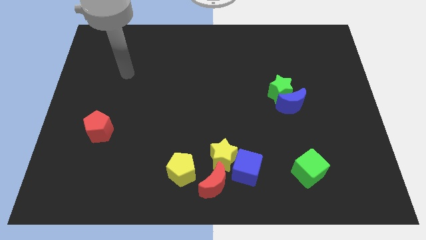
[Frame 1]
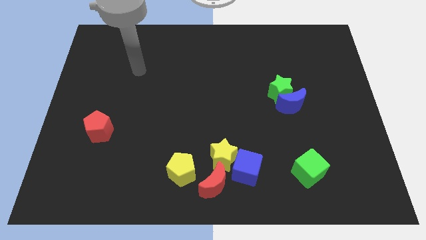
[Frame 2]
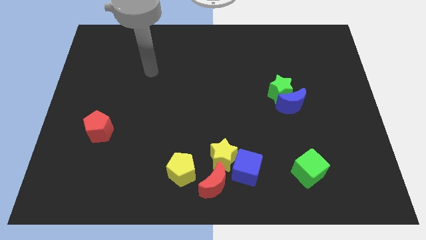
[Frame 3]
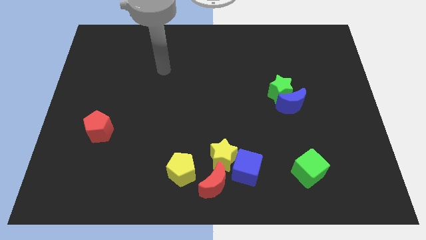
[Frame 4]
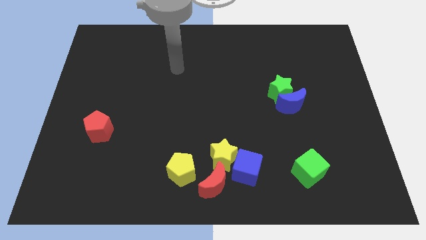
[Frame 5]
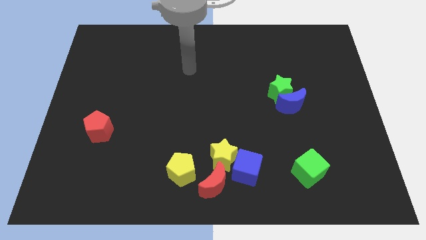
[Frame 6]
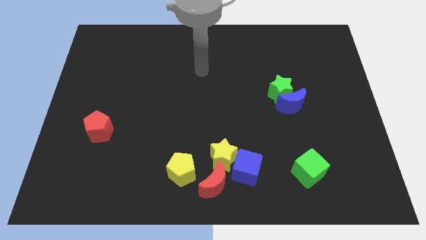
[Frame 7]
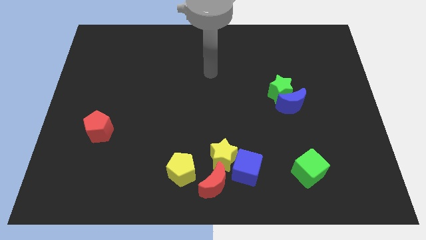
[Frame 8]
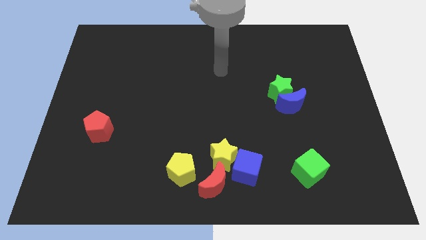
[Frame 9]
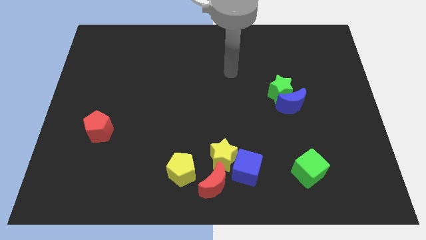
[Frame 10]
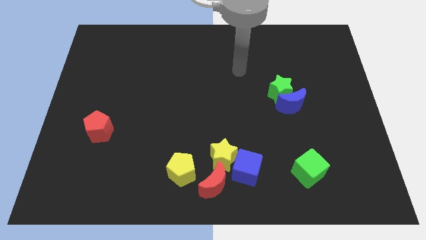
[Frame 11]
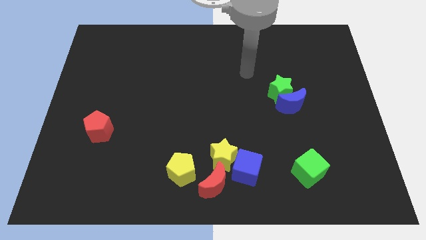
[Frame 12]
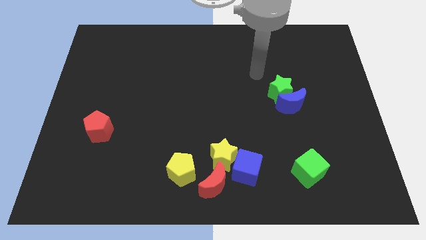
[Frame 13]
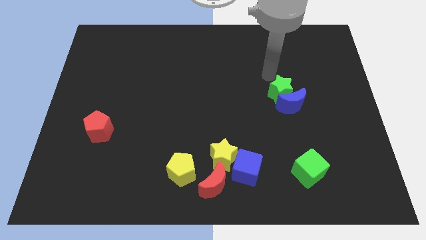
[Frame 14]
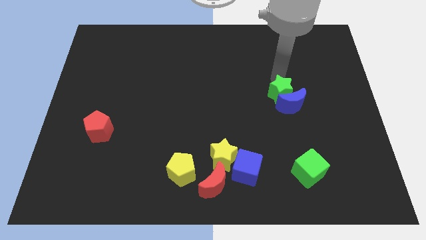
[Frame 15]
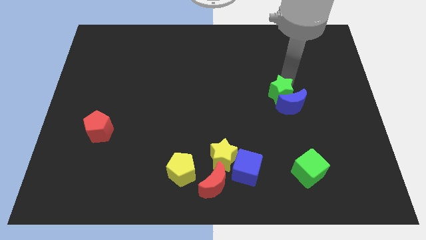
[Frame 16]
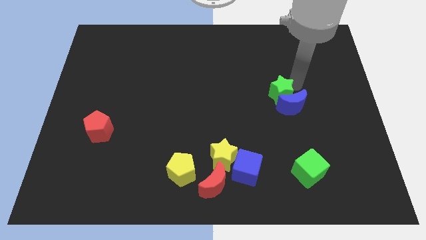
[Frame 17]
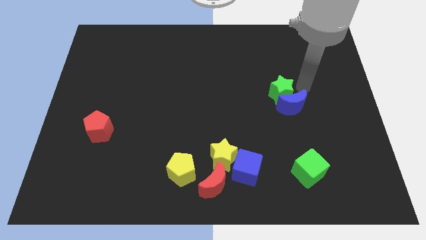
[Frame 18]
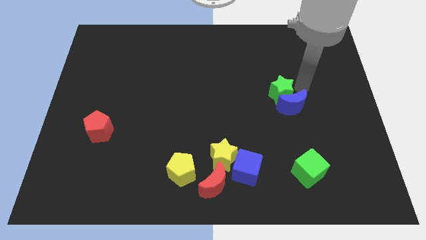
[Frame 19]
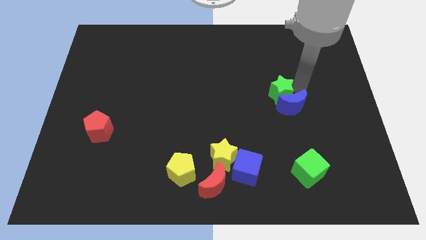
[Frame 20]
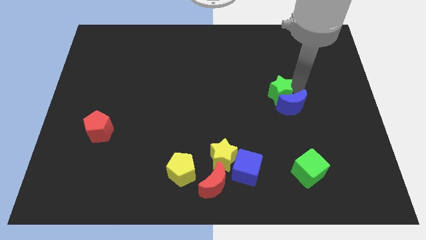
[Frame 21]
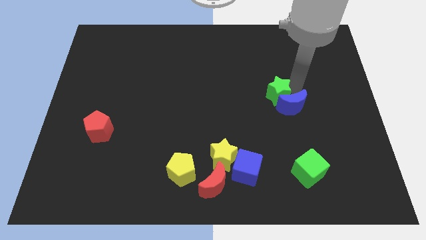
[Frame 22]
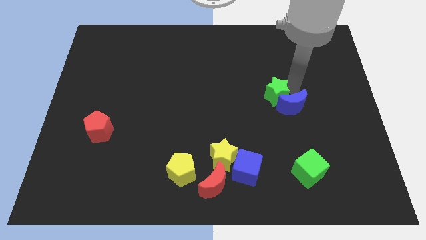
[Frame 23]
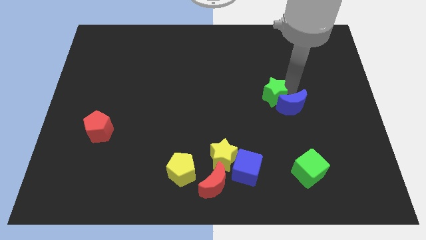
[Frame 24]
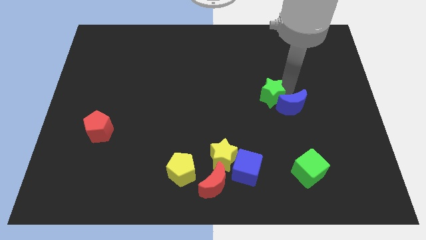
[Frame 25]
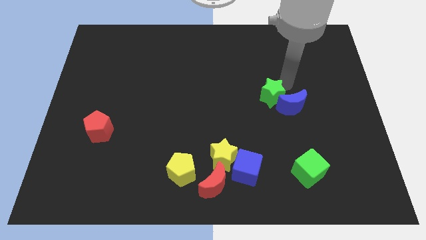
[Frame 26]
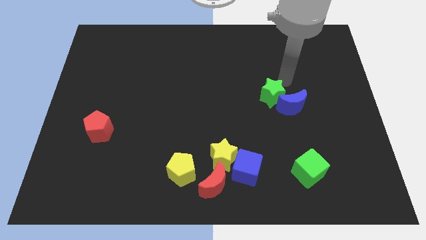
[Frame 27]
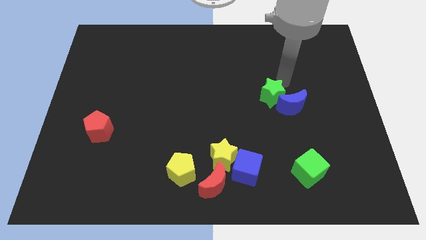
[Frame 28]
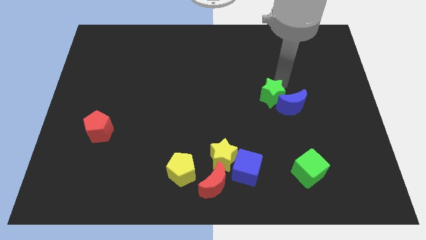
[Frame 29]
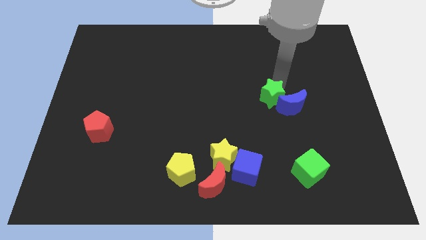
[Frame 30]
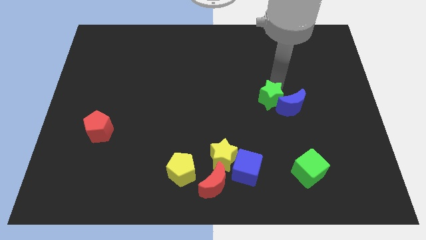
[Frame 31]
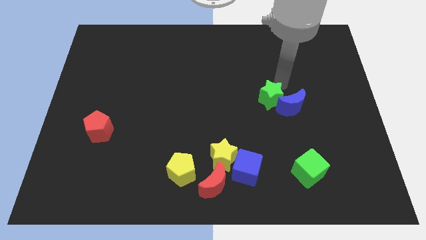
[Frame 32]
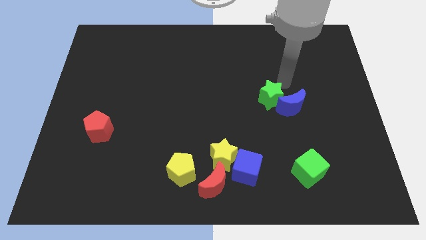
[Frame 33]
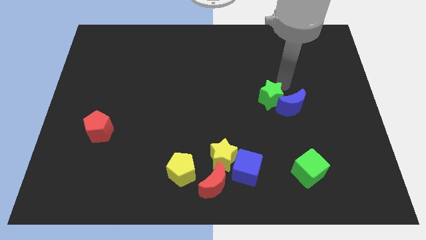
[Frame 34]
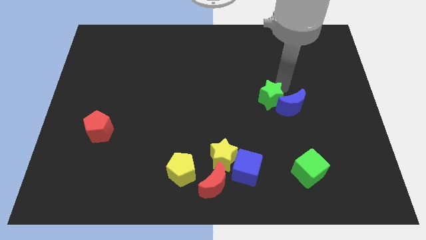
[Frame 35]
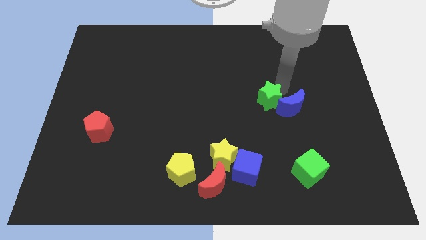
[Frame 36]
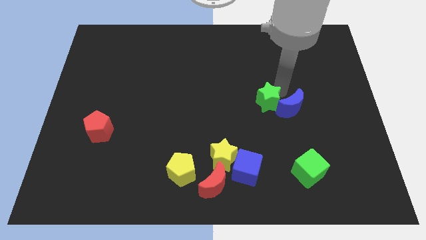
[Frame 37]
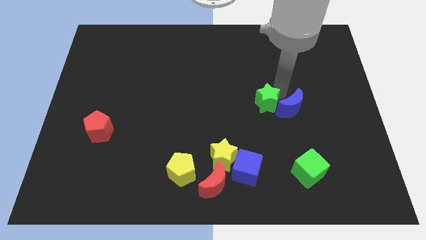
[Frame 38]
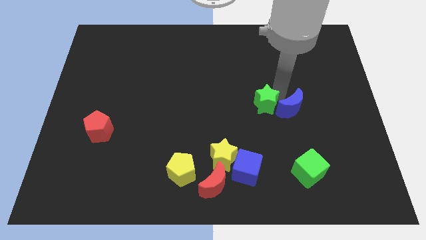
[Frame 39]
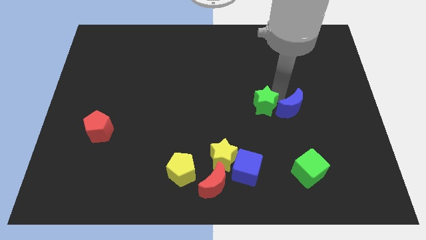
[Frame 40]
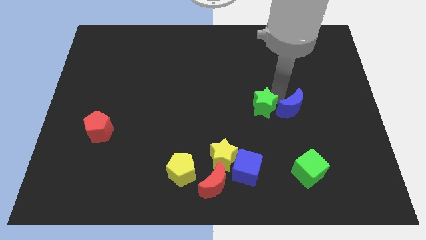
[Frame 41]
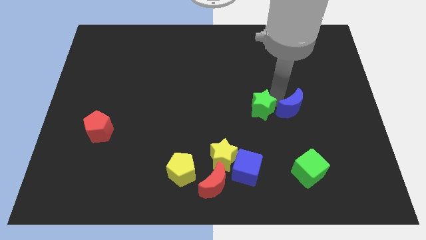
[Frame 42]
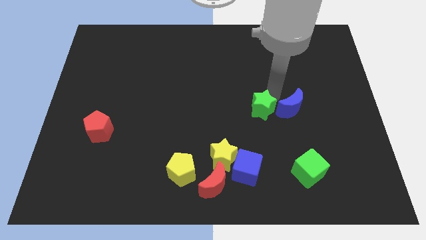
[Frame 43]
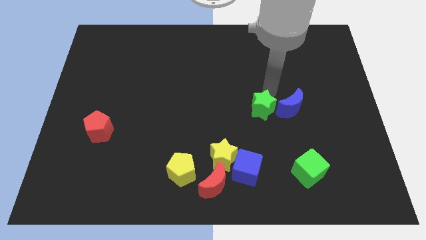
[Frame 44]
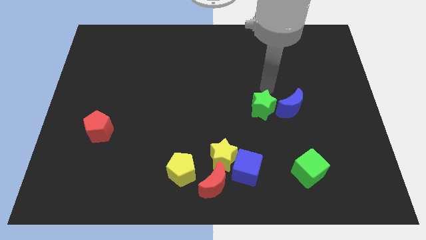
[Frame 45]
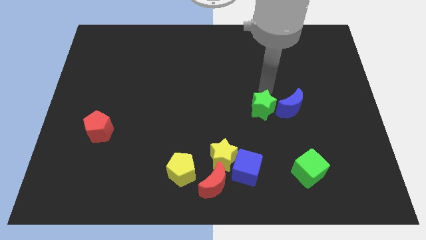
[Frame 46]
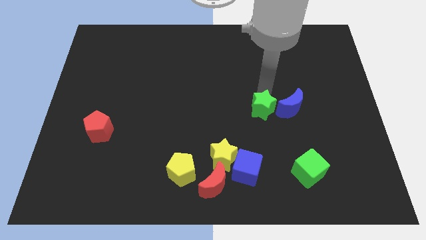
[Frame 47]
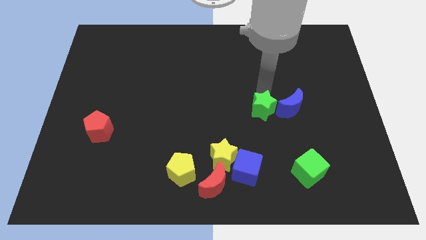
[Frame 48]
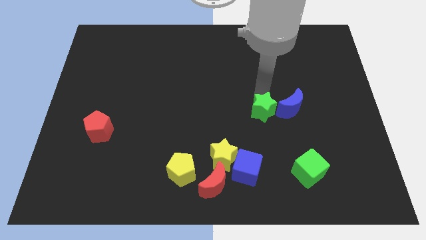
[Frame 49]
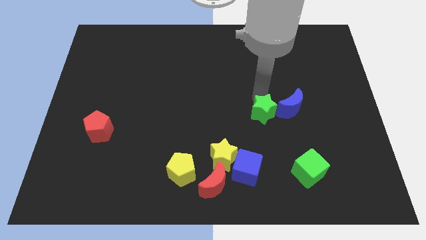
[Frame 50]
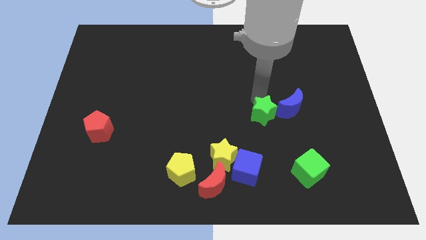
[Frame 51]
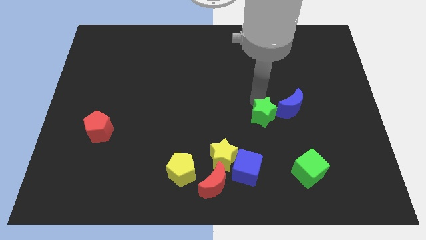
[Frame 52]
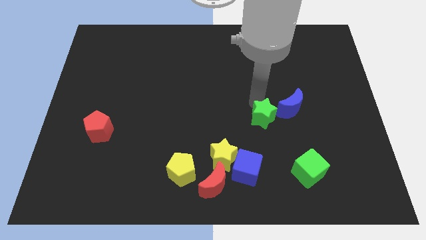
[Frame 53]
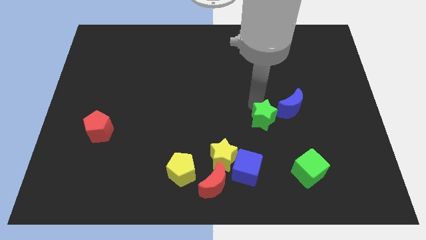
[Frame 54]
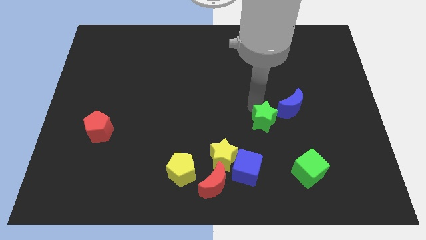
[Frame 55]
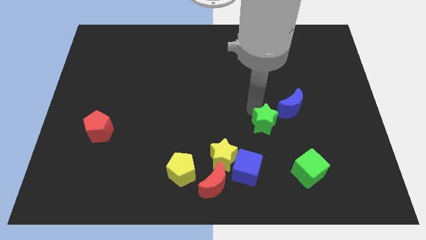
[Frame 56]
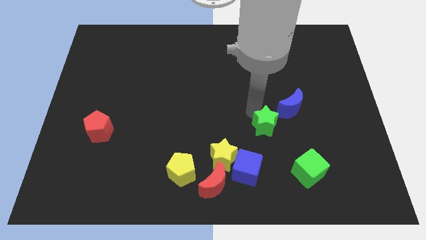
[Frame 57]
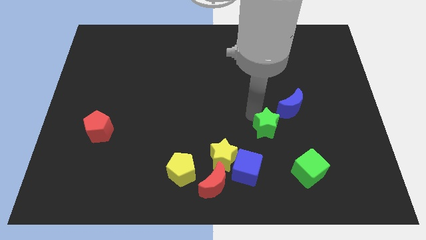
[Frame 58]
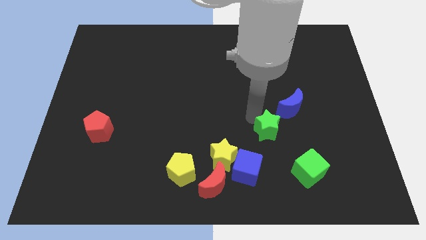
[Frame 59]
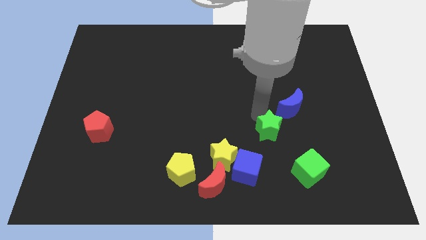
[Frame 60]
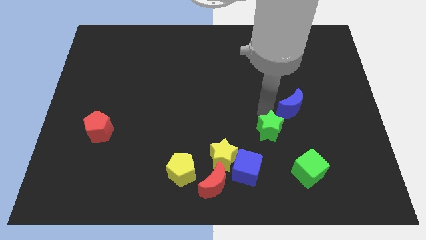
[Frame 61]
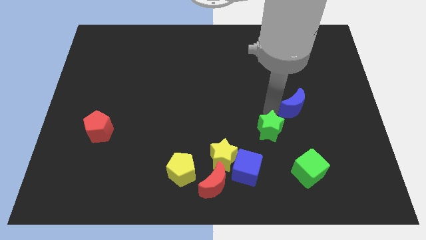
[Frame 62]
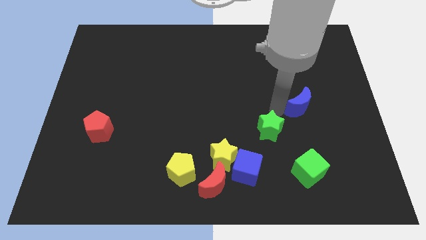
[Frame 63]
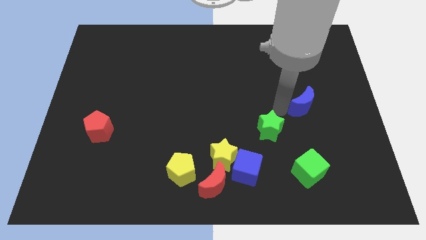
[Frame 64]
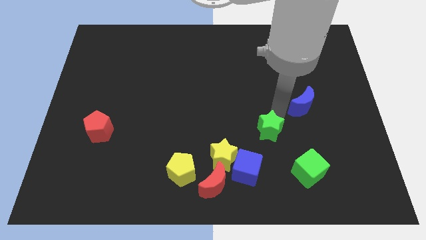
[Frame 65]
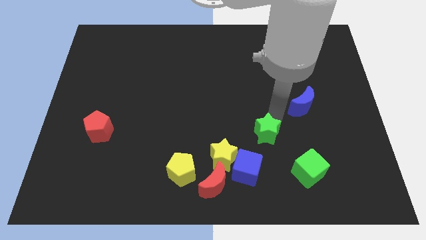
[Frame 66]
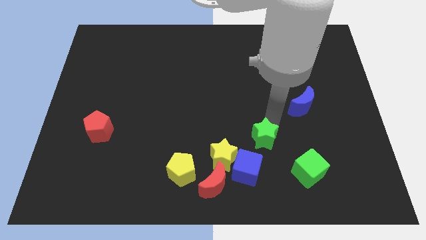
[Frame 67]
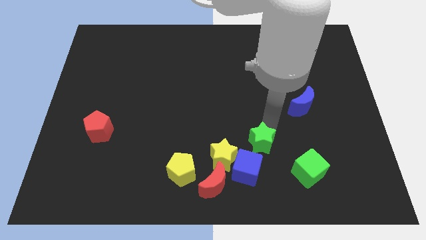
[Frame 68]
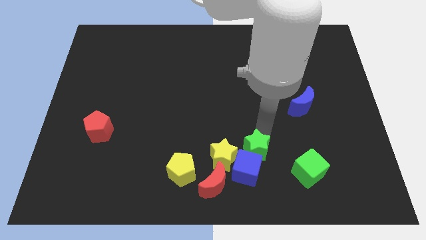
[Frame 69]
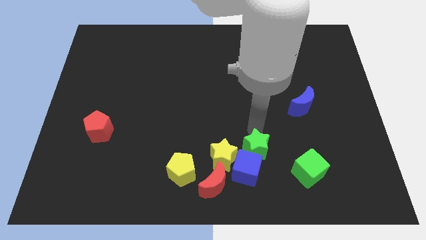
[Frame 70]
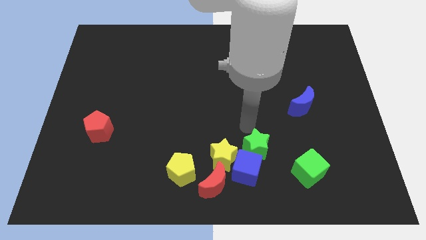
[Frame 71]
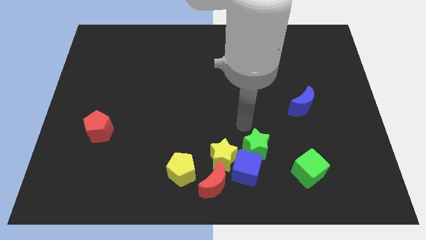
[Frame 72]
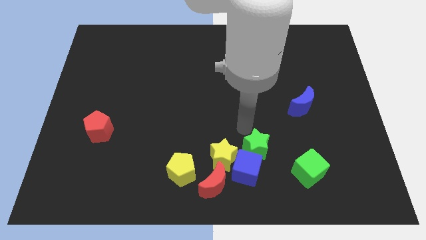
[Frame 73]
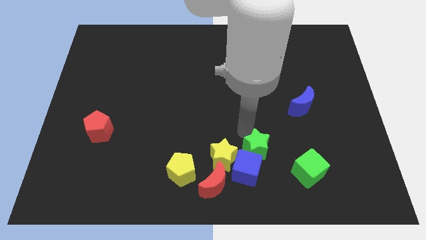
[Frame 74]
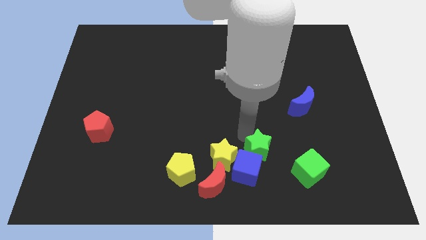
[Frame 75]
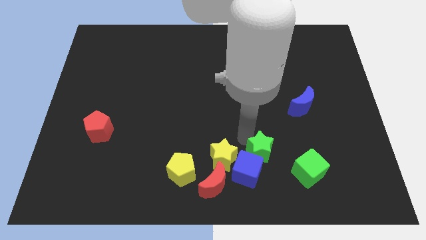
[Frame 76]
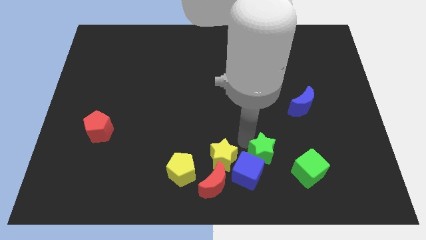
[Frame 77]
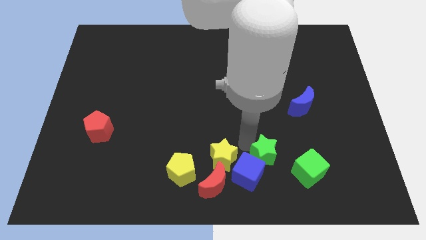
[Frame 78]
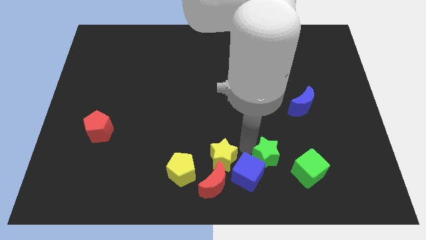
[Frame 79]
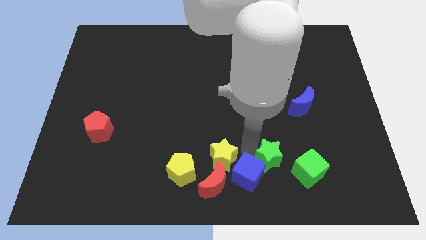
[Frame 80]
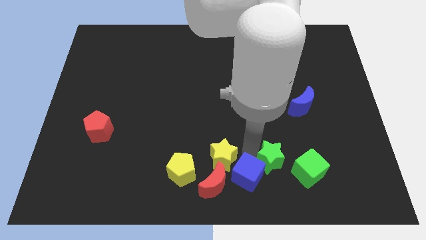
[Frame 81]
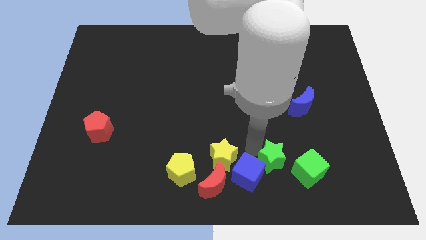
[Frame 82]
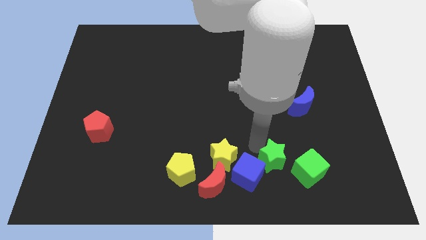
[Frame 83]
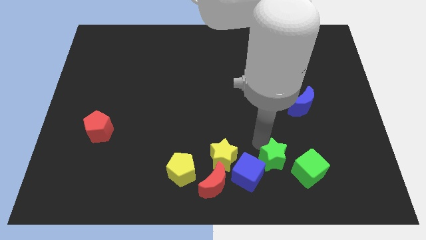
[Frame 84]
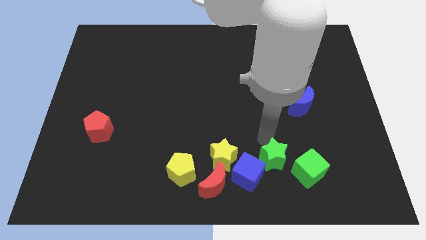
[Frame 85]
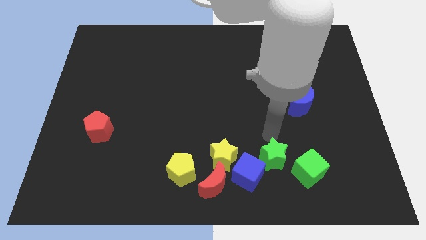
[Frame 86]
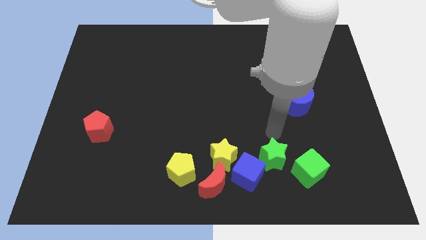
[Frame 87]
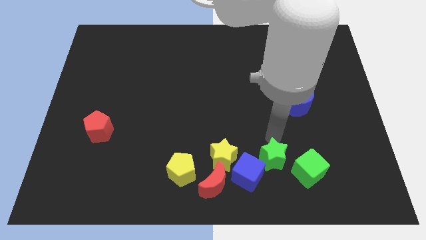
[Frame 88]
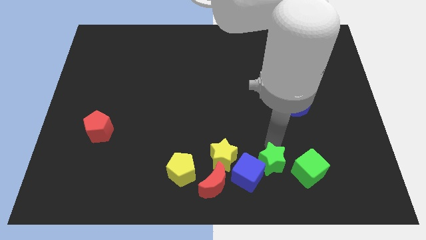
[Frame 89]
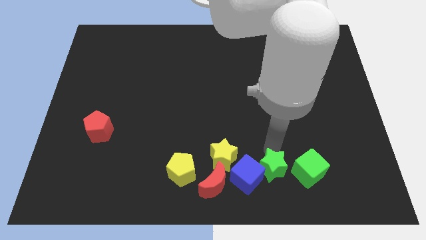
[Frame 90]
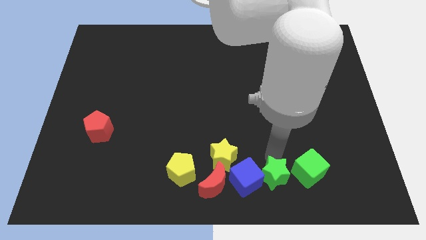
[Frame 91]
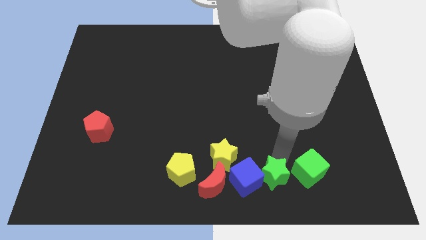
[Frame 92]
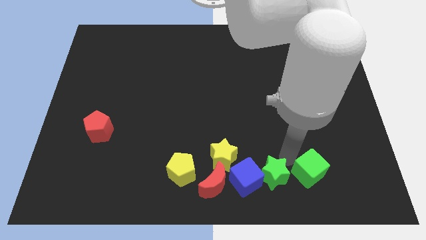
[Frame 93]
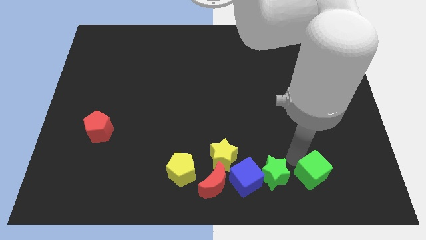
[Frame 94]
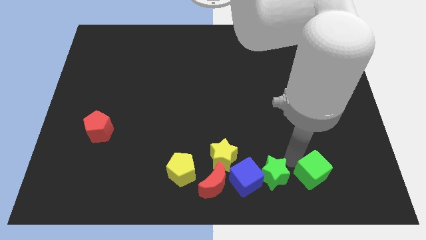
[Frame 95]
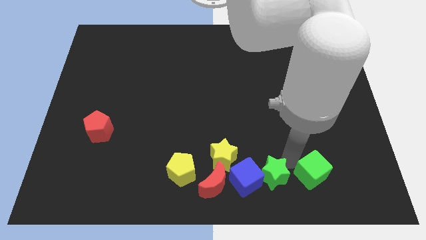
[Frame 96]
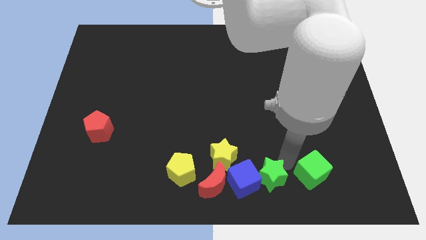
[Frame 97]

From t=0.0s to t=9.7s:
slide the green star to the bottom
